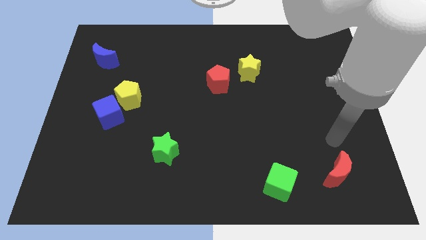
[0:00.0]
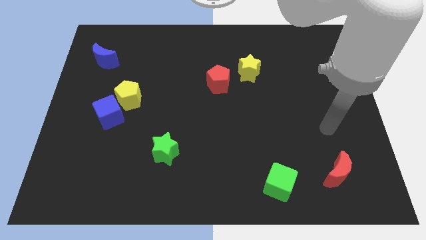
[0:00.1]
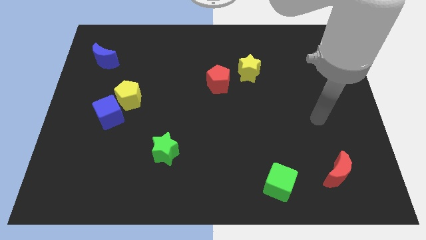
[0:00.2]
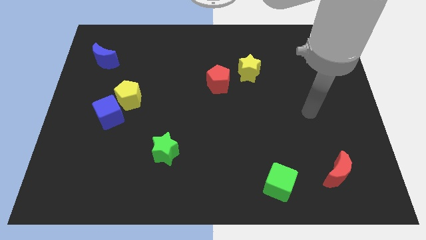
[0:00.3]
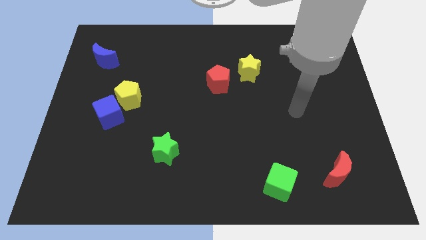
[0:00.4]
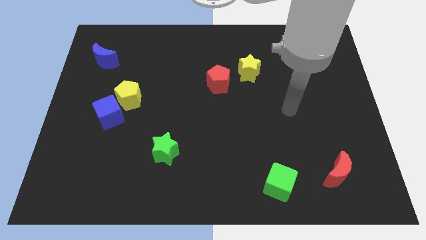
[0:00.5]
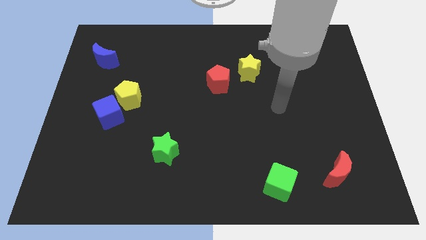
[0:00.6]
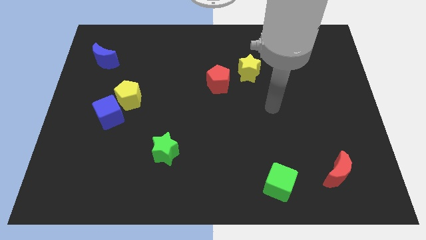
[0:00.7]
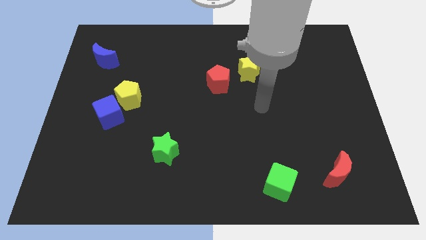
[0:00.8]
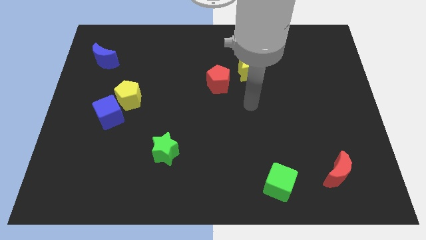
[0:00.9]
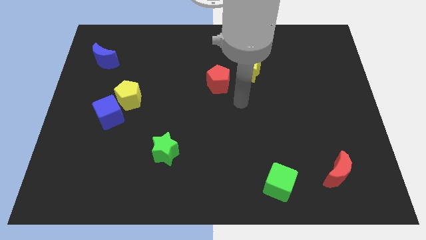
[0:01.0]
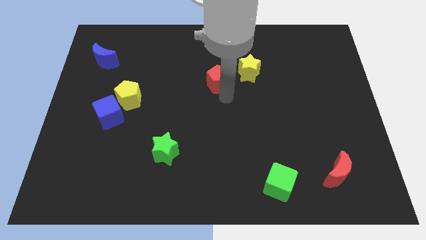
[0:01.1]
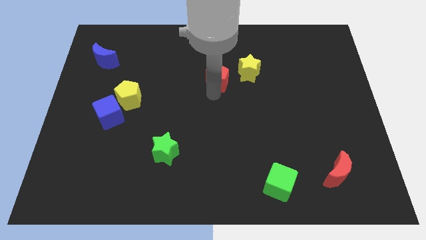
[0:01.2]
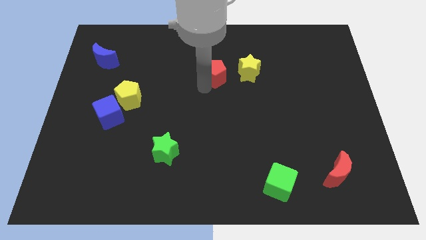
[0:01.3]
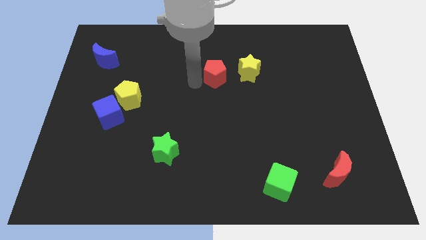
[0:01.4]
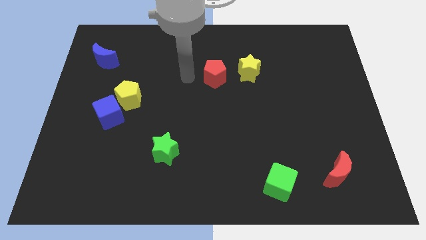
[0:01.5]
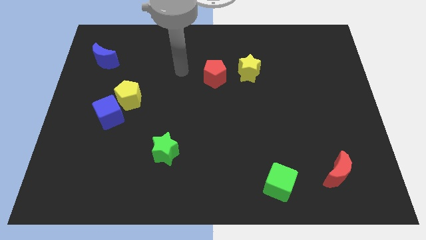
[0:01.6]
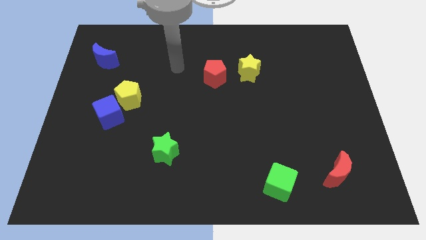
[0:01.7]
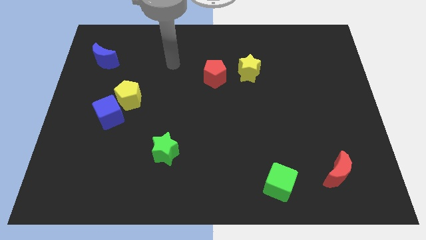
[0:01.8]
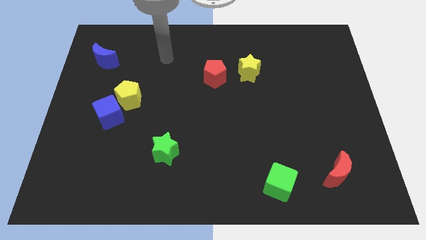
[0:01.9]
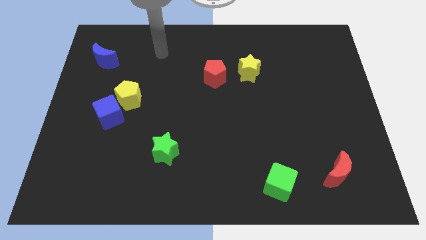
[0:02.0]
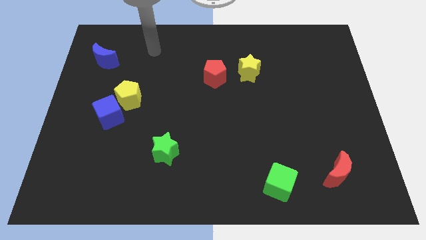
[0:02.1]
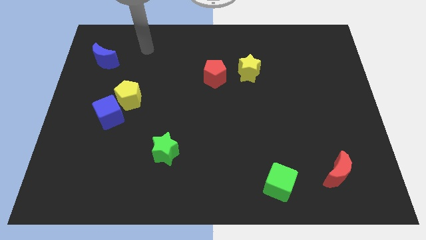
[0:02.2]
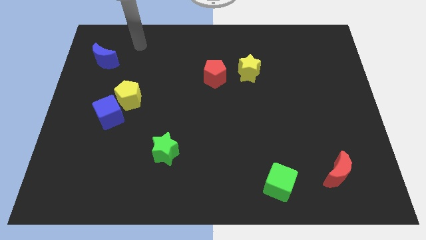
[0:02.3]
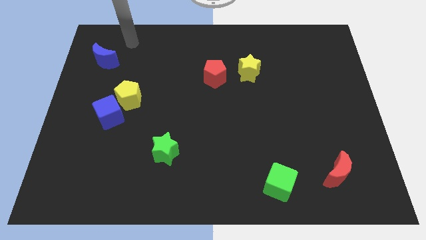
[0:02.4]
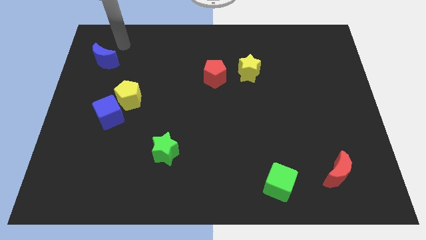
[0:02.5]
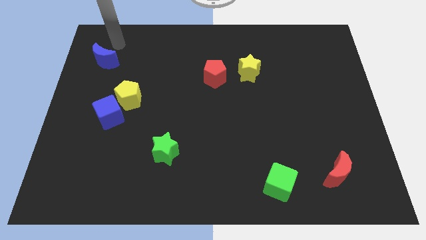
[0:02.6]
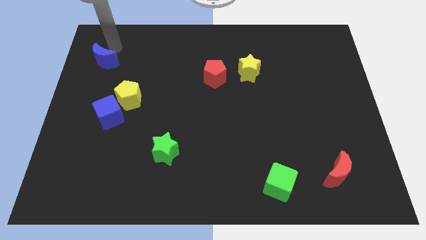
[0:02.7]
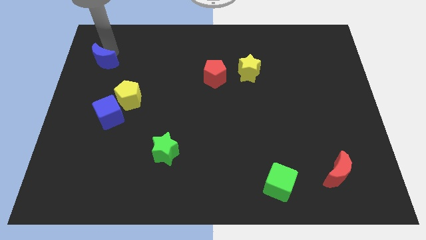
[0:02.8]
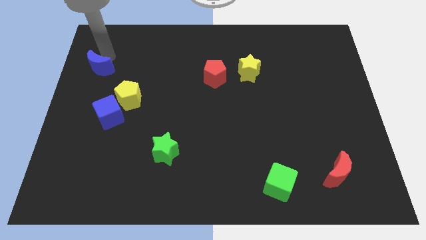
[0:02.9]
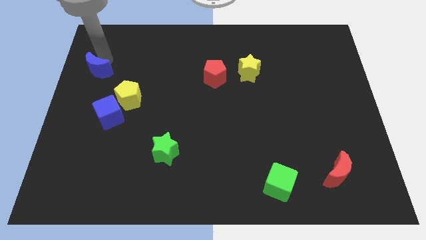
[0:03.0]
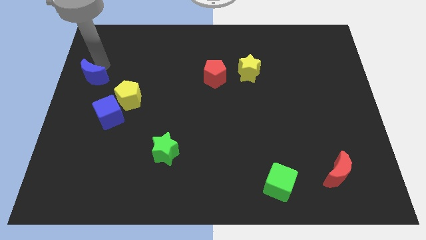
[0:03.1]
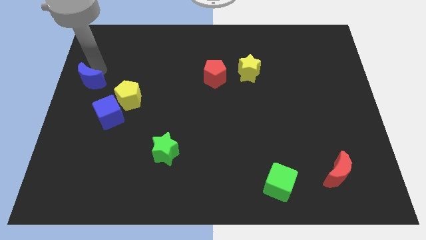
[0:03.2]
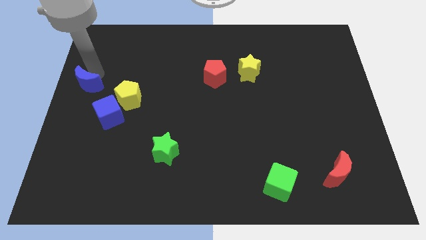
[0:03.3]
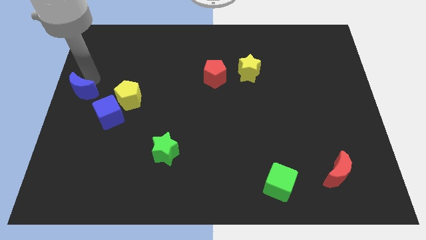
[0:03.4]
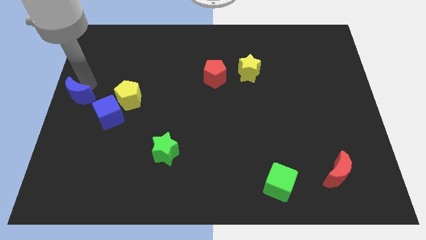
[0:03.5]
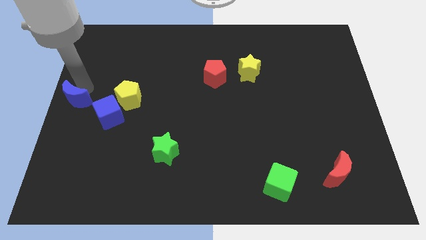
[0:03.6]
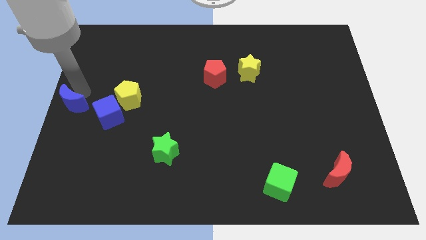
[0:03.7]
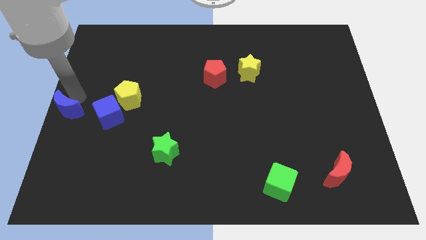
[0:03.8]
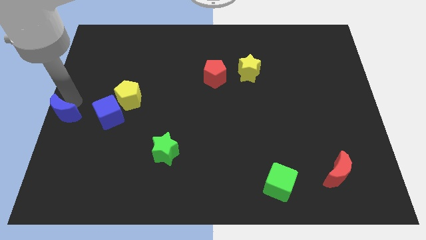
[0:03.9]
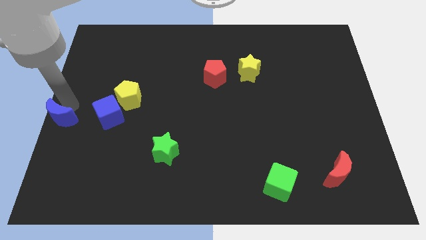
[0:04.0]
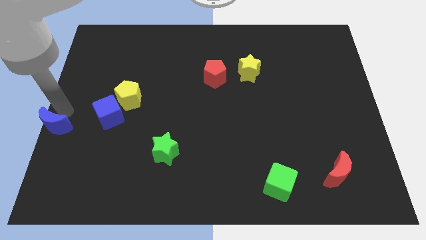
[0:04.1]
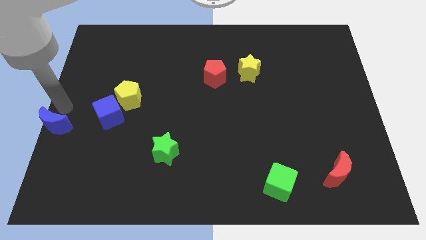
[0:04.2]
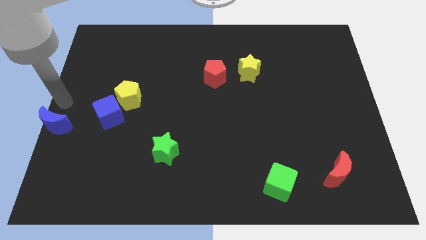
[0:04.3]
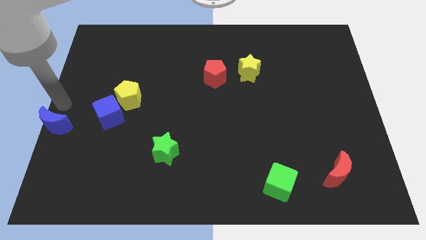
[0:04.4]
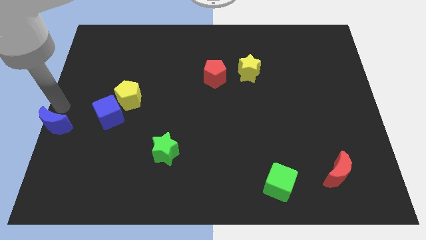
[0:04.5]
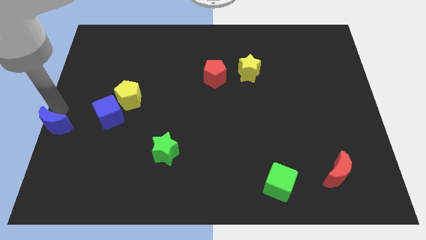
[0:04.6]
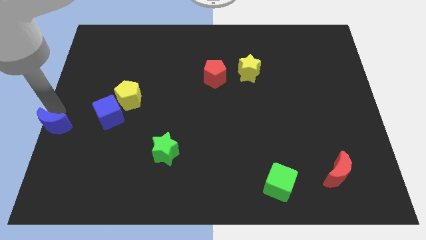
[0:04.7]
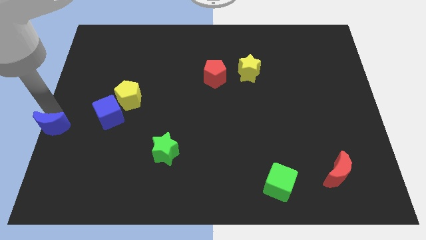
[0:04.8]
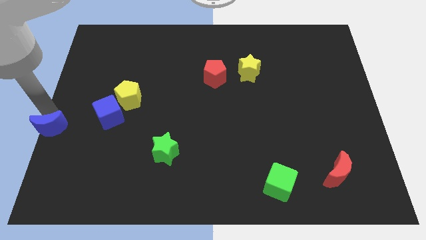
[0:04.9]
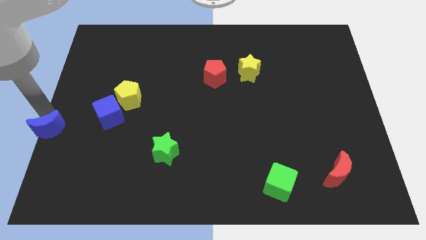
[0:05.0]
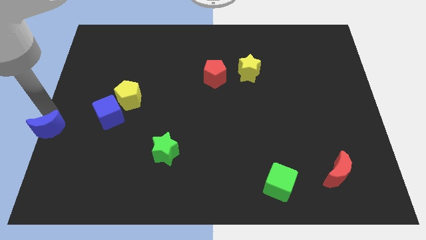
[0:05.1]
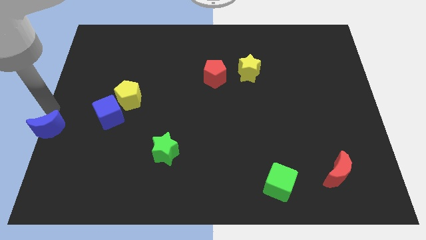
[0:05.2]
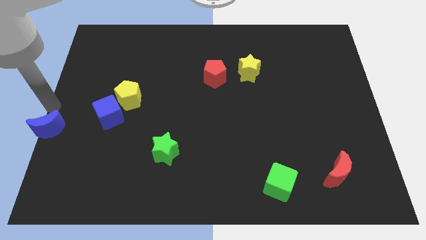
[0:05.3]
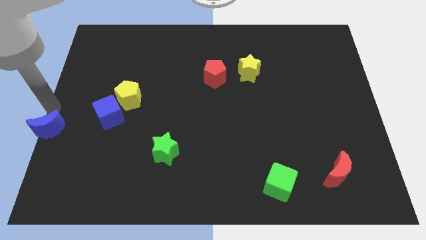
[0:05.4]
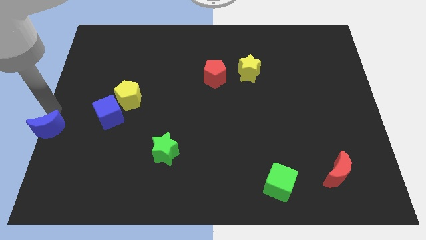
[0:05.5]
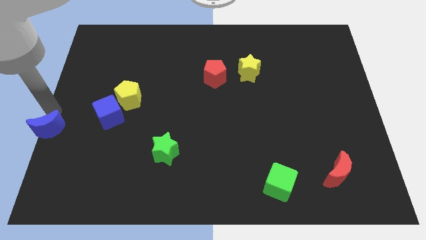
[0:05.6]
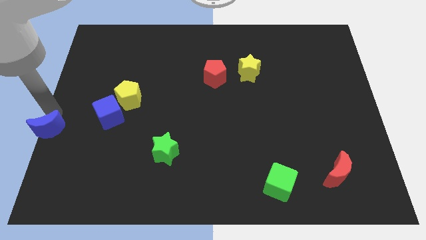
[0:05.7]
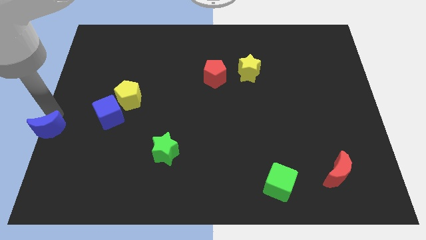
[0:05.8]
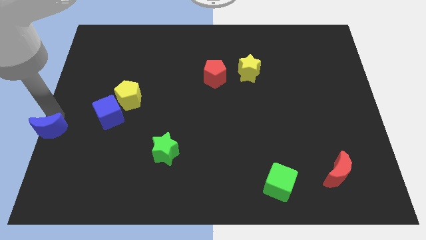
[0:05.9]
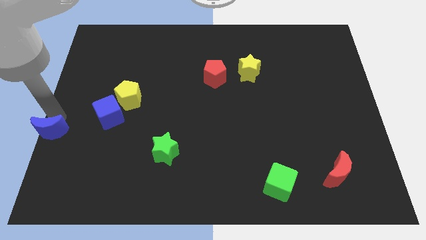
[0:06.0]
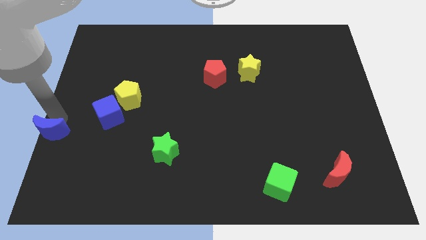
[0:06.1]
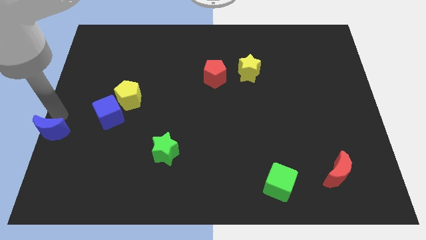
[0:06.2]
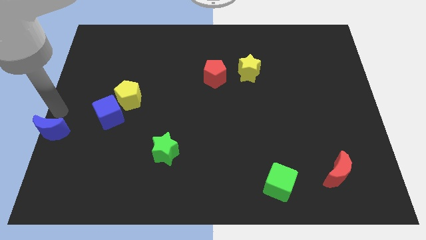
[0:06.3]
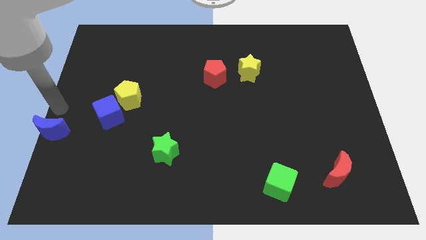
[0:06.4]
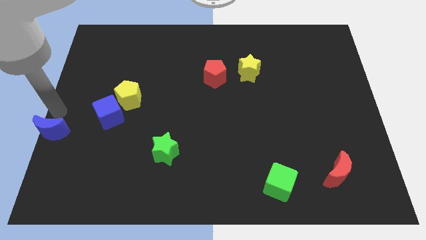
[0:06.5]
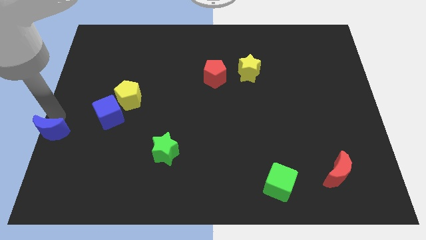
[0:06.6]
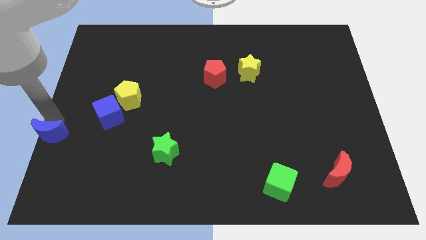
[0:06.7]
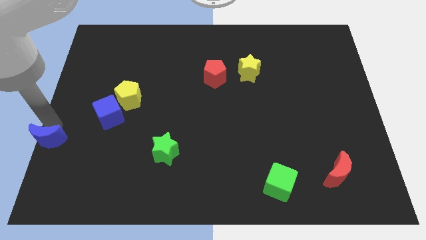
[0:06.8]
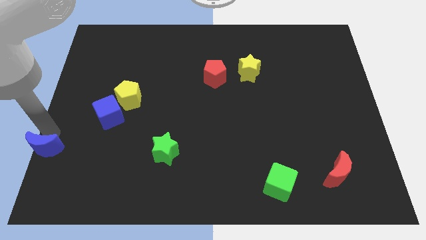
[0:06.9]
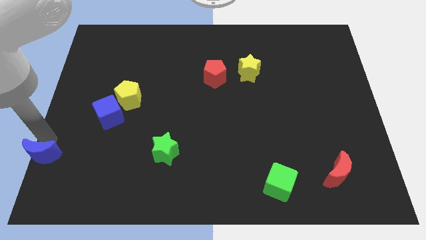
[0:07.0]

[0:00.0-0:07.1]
put the blue moon to the bottom left of the board
